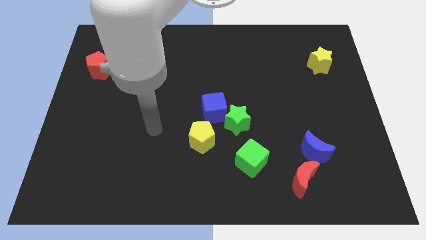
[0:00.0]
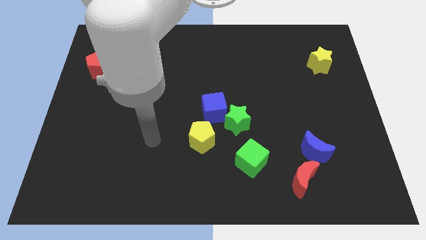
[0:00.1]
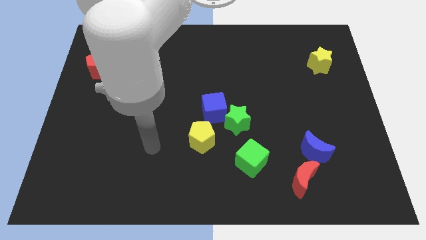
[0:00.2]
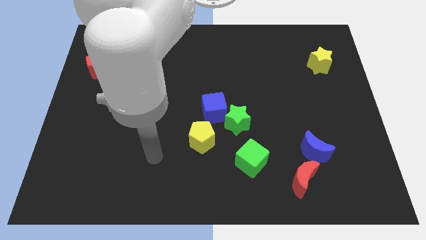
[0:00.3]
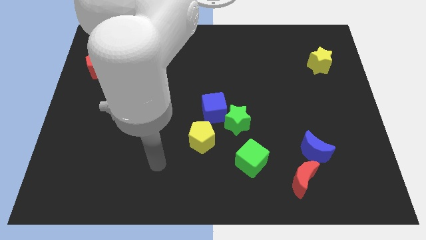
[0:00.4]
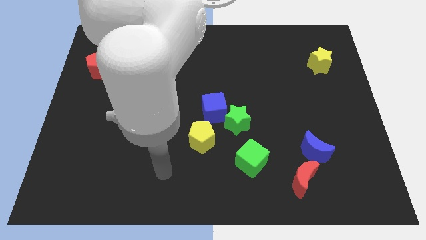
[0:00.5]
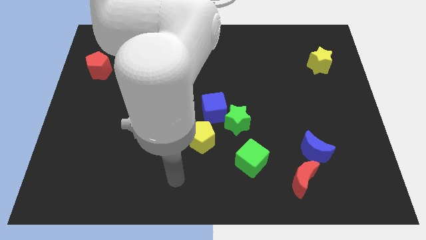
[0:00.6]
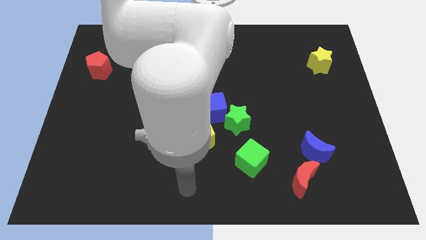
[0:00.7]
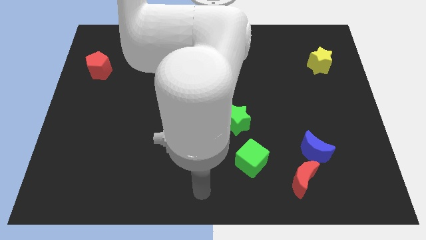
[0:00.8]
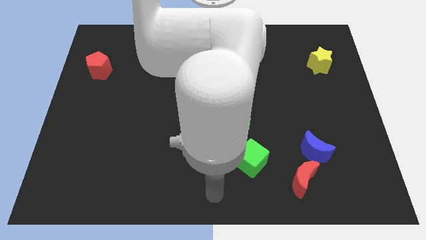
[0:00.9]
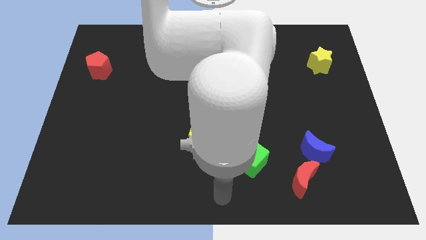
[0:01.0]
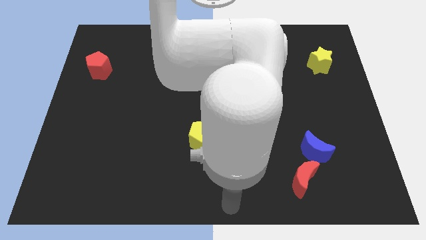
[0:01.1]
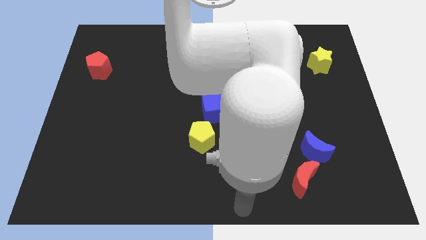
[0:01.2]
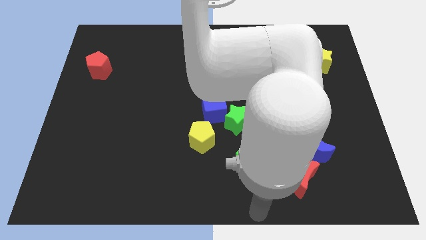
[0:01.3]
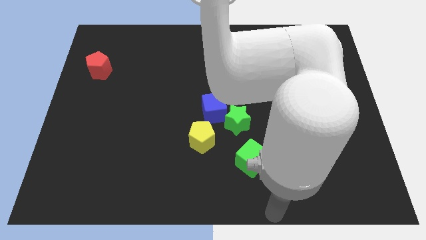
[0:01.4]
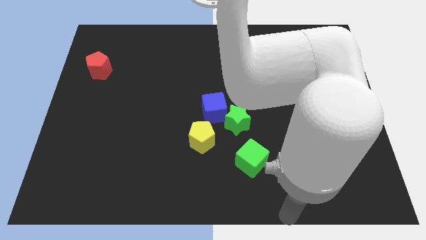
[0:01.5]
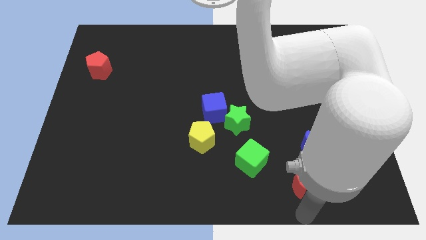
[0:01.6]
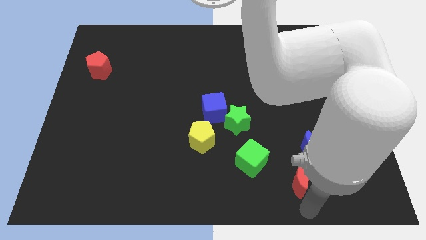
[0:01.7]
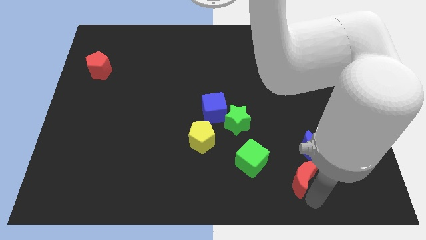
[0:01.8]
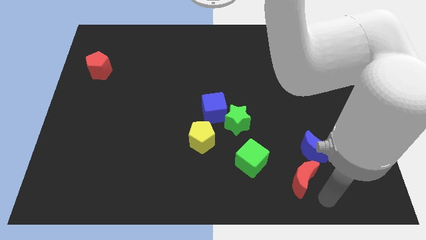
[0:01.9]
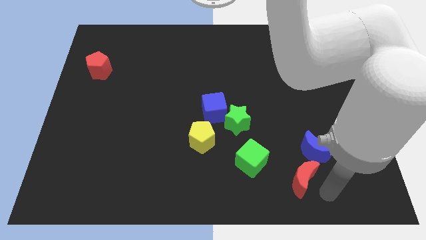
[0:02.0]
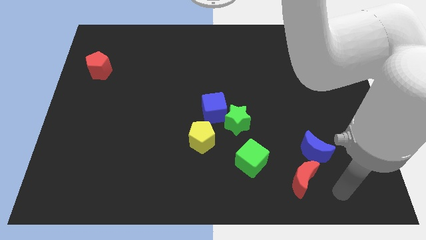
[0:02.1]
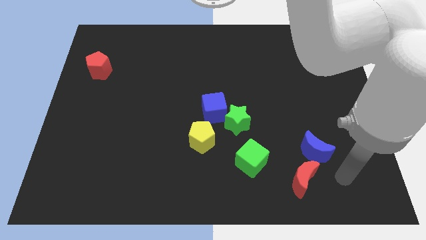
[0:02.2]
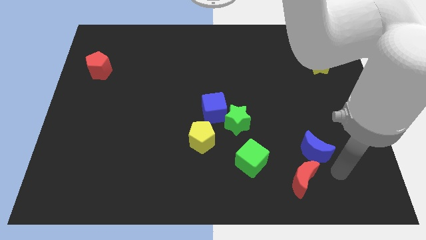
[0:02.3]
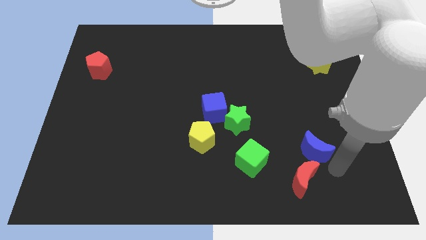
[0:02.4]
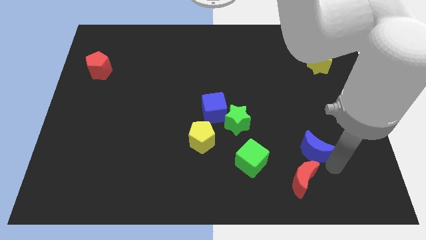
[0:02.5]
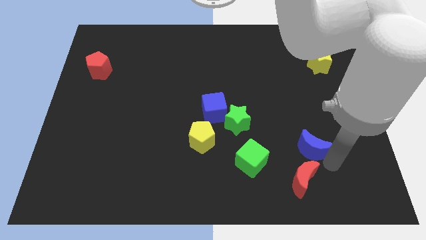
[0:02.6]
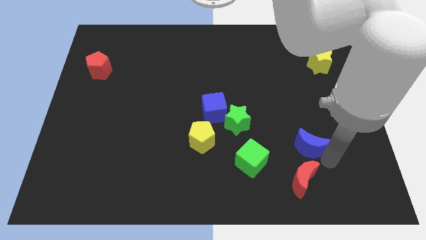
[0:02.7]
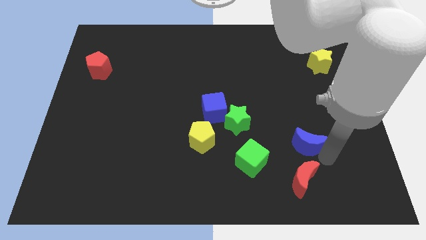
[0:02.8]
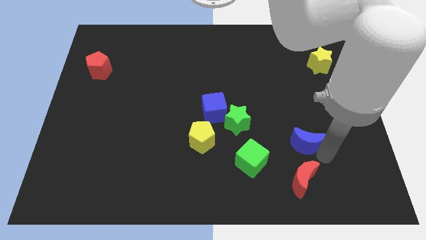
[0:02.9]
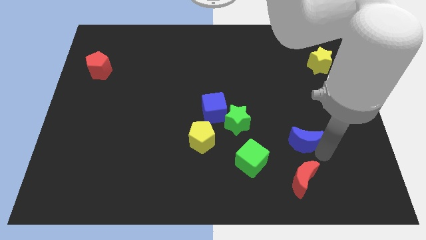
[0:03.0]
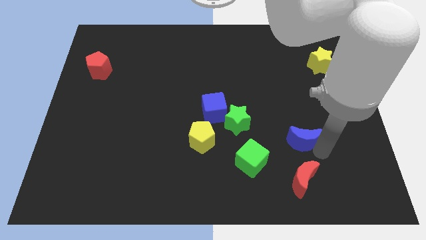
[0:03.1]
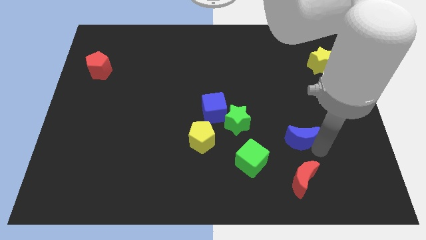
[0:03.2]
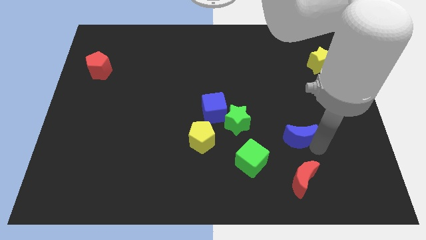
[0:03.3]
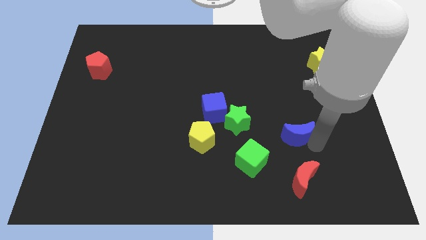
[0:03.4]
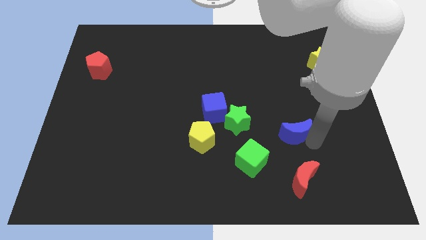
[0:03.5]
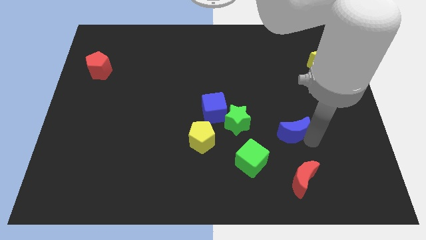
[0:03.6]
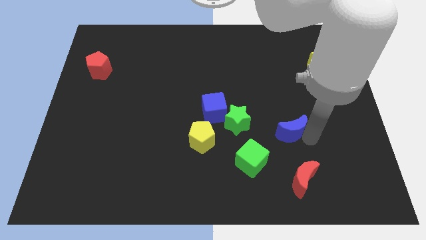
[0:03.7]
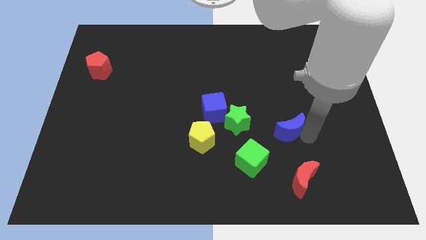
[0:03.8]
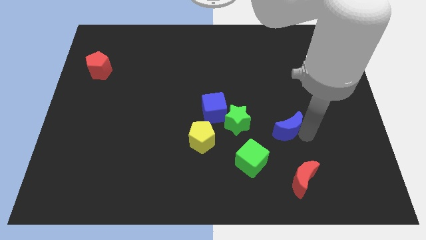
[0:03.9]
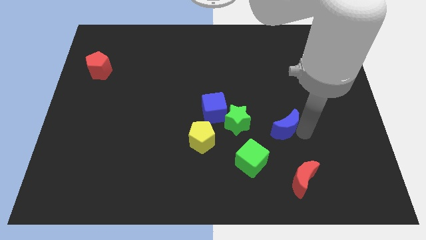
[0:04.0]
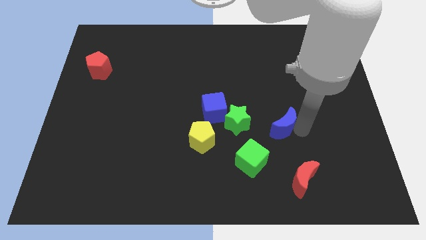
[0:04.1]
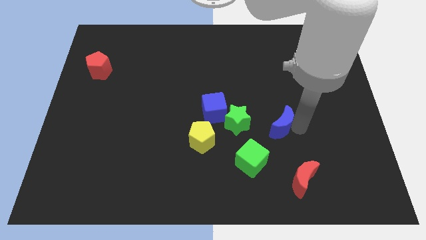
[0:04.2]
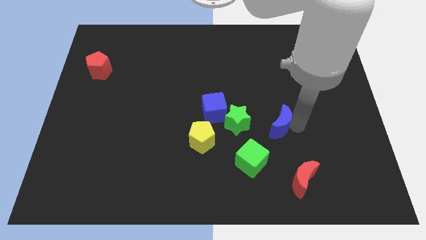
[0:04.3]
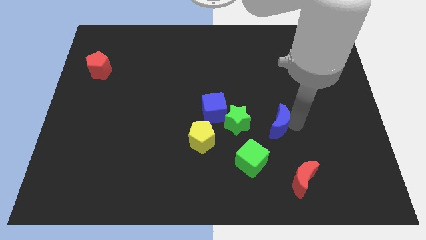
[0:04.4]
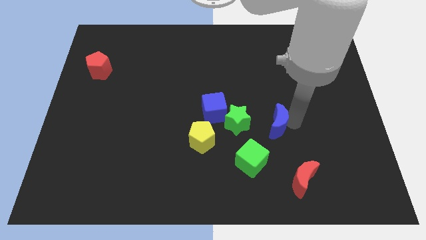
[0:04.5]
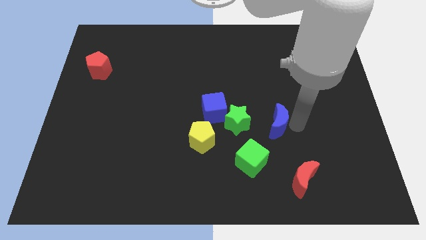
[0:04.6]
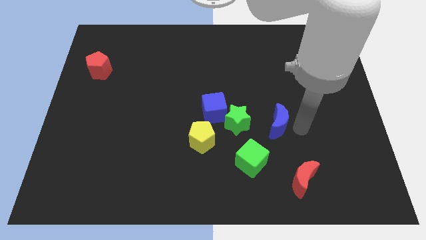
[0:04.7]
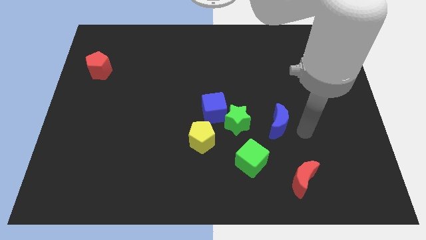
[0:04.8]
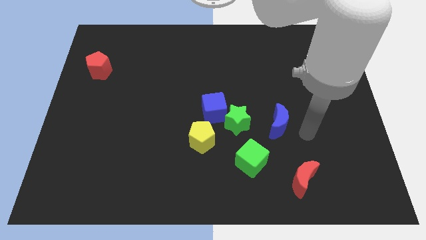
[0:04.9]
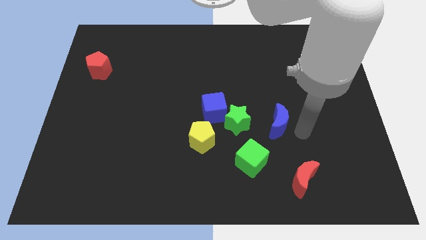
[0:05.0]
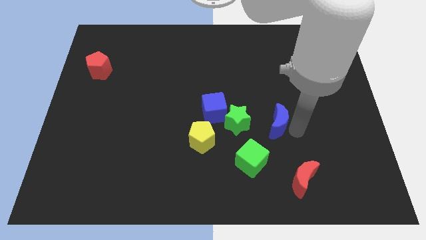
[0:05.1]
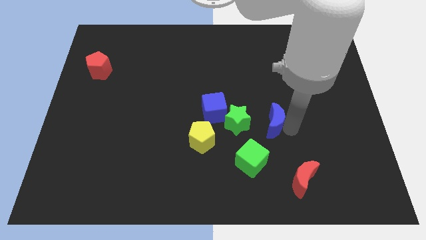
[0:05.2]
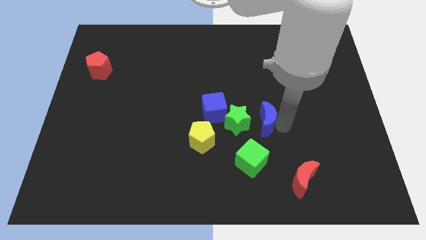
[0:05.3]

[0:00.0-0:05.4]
push the blue moon to the top of the green cube

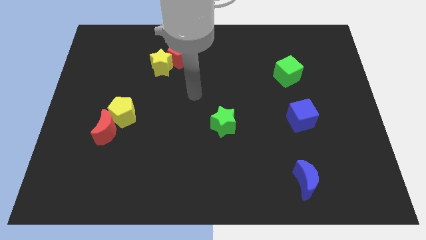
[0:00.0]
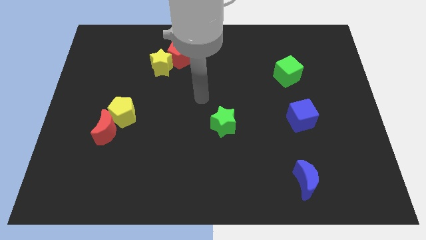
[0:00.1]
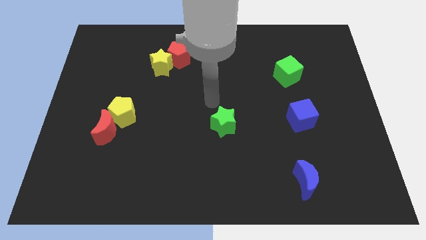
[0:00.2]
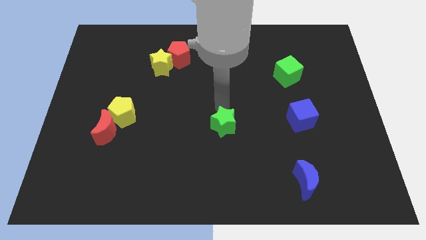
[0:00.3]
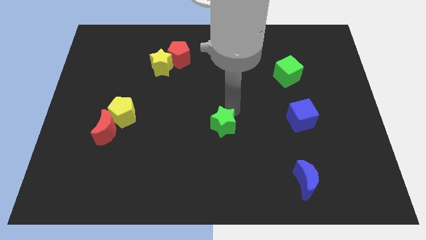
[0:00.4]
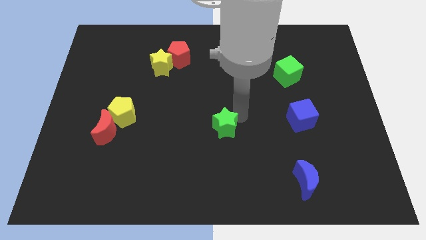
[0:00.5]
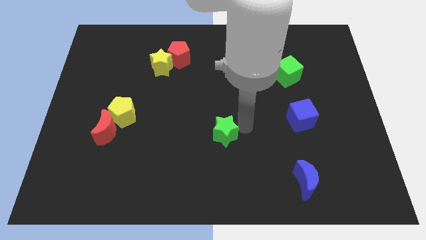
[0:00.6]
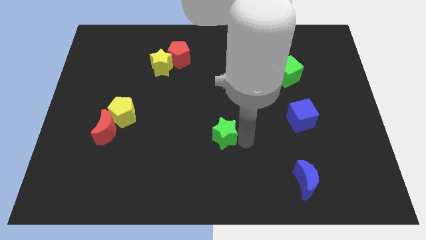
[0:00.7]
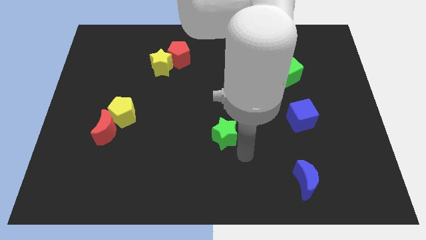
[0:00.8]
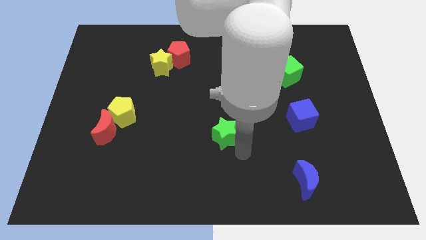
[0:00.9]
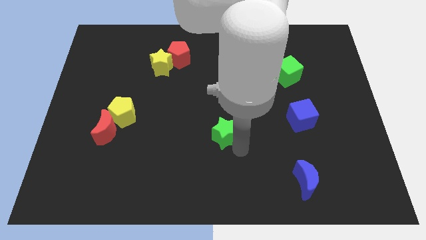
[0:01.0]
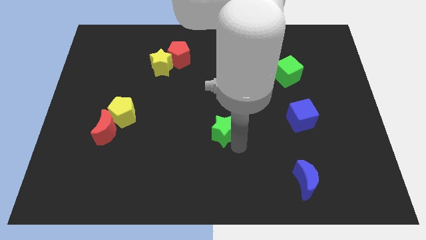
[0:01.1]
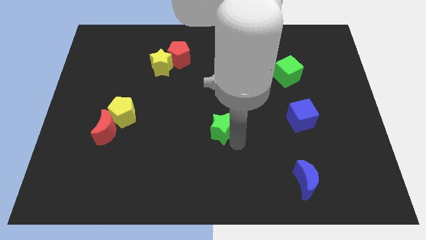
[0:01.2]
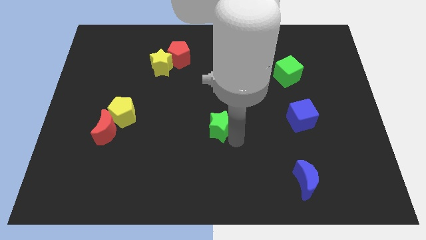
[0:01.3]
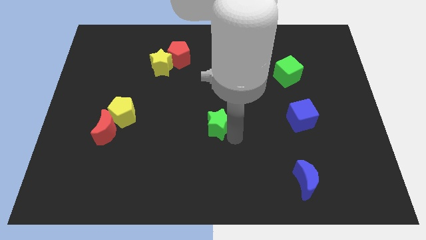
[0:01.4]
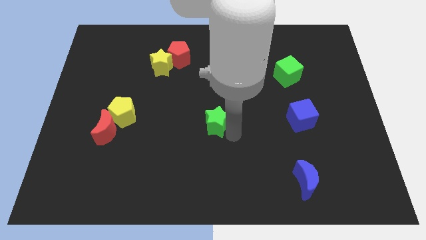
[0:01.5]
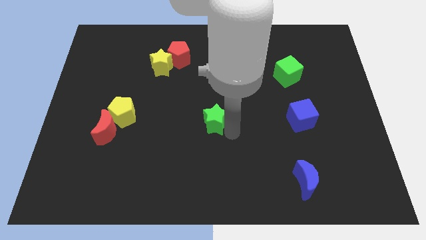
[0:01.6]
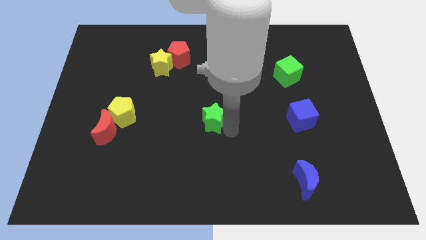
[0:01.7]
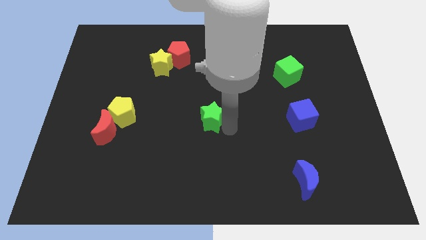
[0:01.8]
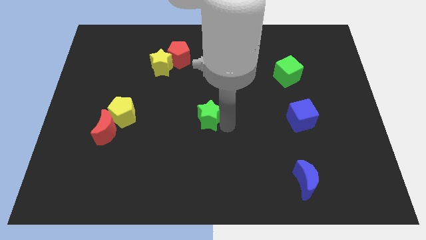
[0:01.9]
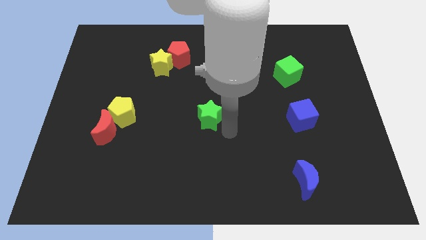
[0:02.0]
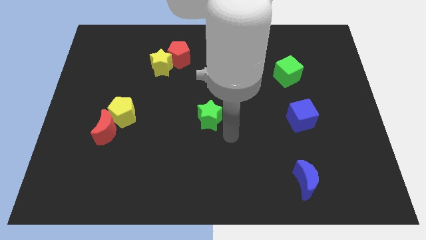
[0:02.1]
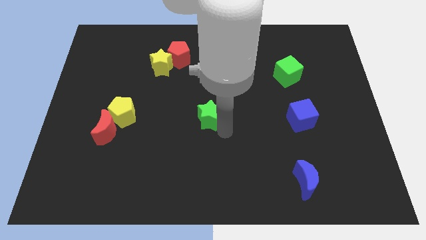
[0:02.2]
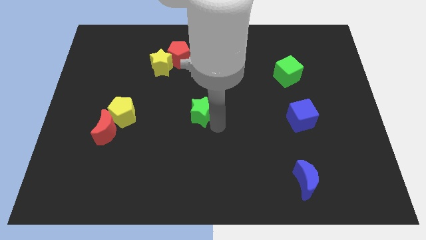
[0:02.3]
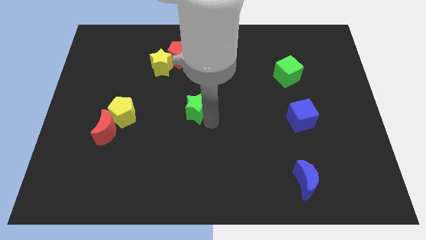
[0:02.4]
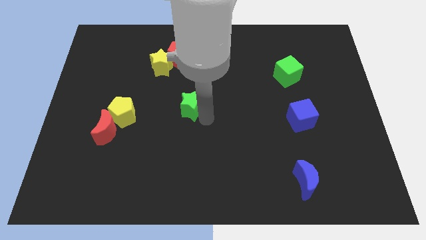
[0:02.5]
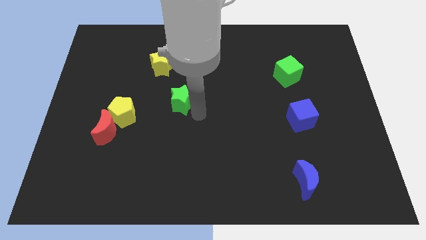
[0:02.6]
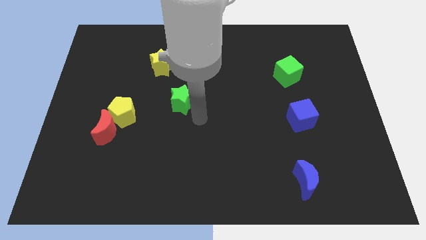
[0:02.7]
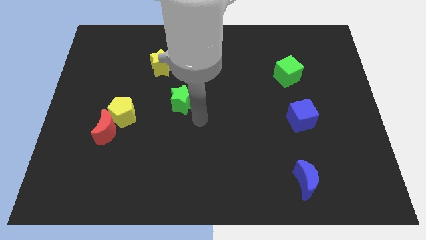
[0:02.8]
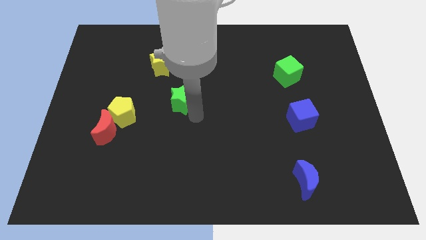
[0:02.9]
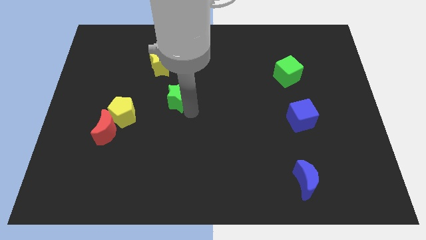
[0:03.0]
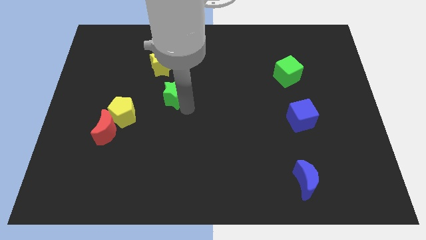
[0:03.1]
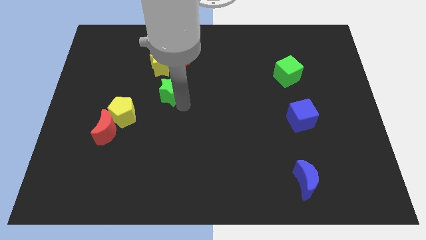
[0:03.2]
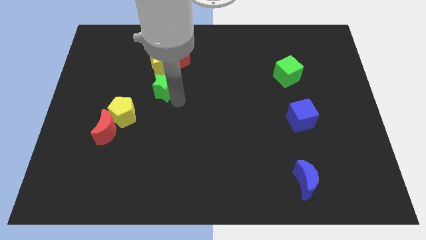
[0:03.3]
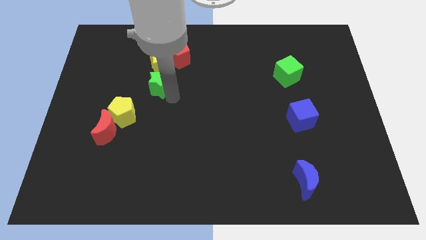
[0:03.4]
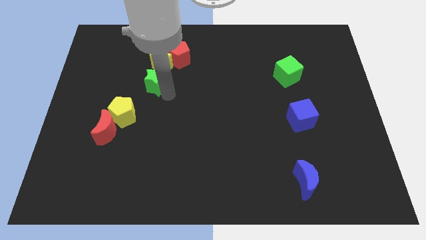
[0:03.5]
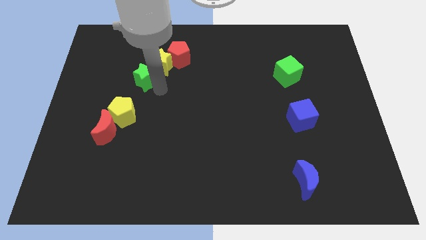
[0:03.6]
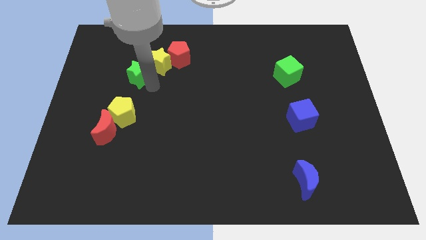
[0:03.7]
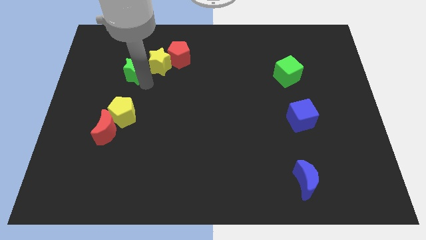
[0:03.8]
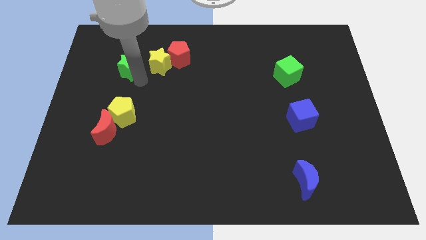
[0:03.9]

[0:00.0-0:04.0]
move the green star left of the red pentagon
